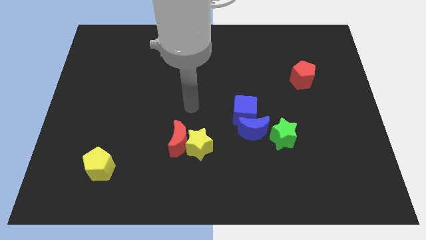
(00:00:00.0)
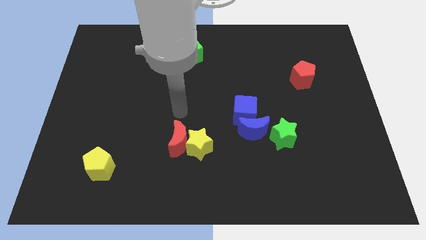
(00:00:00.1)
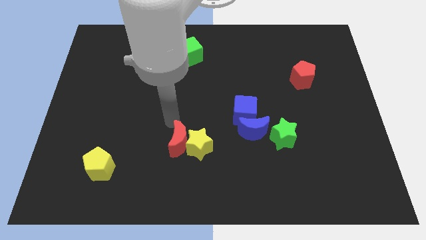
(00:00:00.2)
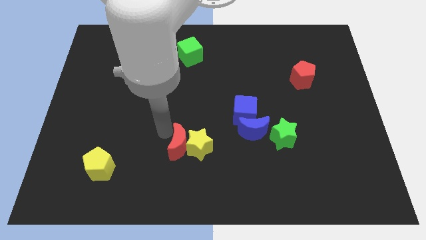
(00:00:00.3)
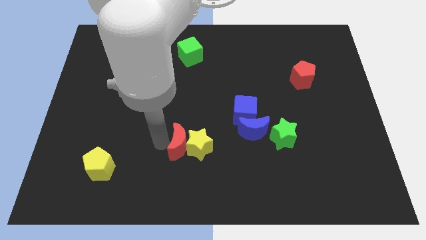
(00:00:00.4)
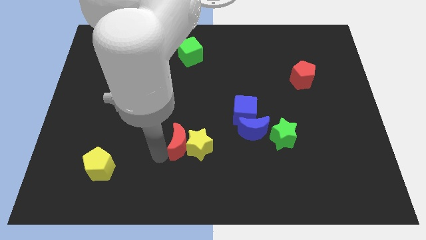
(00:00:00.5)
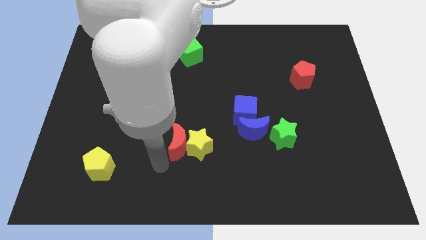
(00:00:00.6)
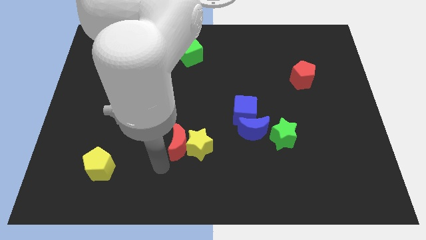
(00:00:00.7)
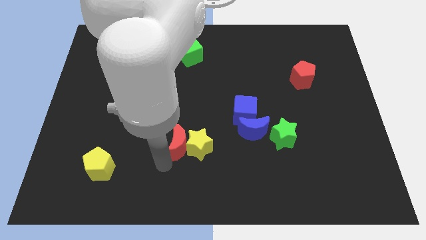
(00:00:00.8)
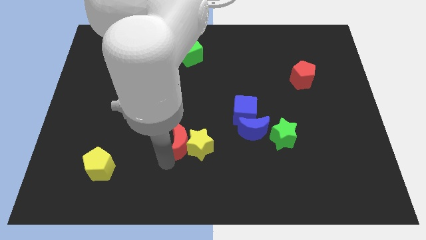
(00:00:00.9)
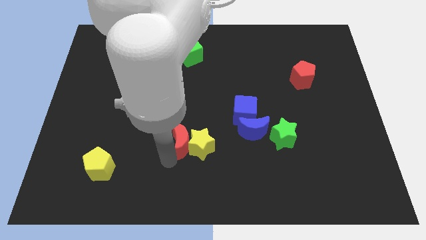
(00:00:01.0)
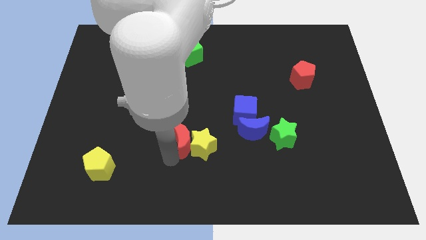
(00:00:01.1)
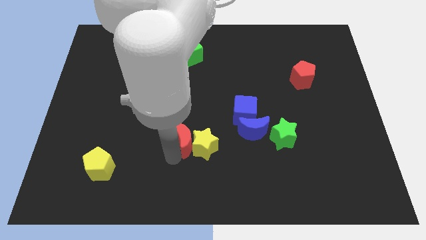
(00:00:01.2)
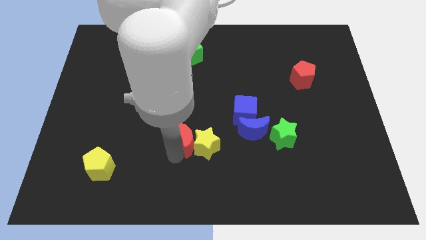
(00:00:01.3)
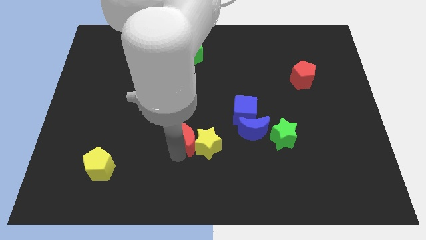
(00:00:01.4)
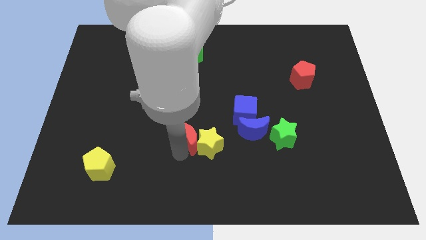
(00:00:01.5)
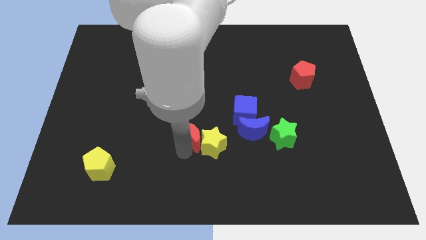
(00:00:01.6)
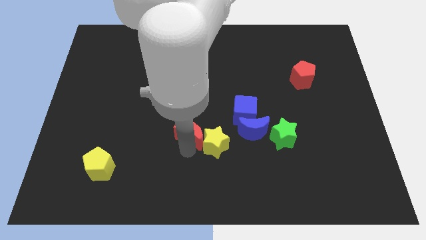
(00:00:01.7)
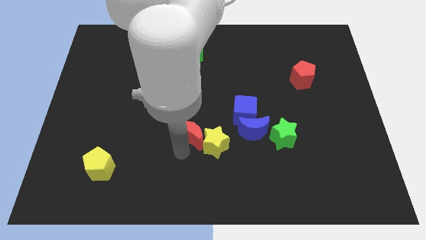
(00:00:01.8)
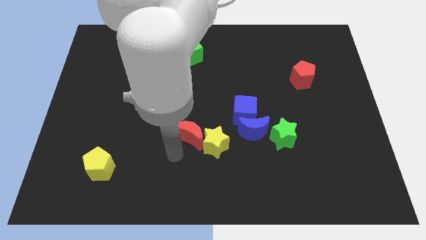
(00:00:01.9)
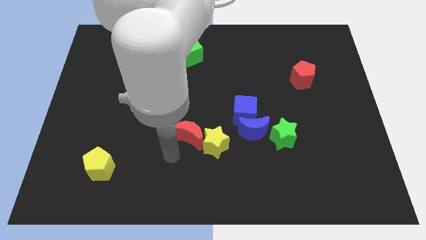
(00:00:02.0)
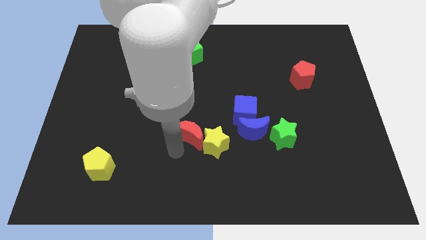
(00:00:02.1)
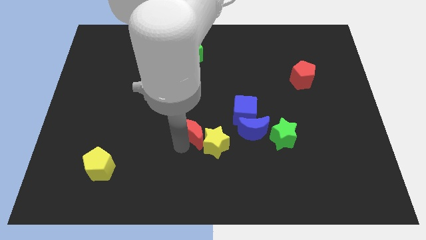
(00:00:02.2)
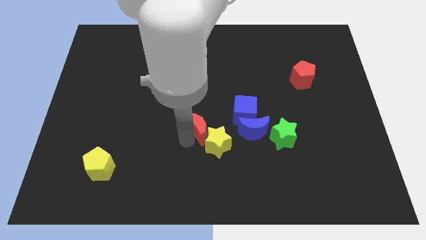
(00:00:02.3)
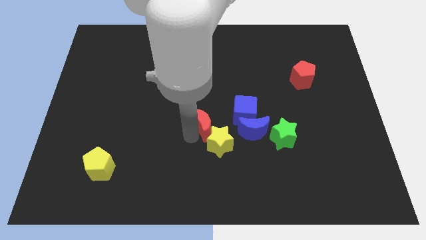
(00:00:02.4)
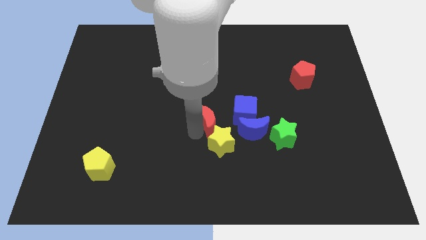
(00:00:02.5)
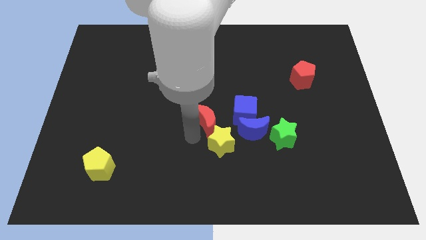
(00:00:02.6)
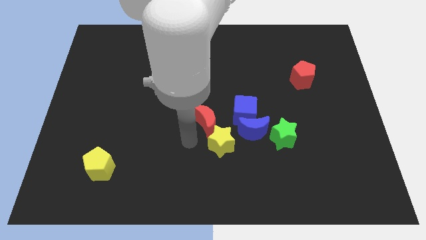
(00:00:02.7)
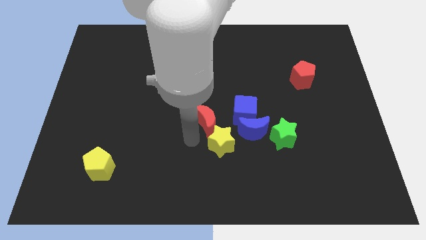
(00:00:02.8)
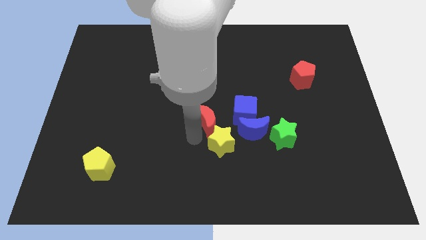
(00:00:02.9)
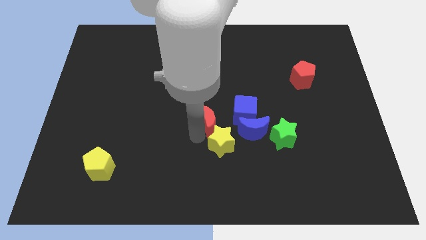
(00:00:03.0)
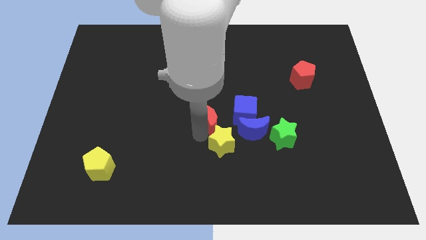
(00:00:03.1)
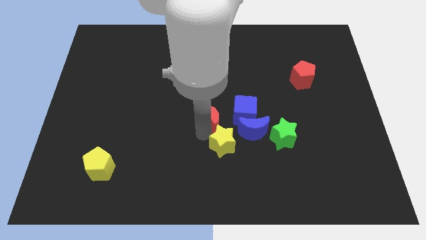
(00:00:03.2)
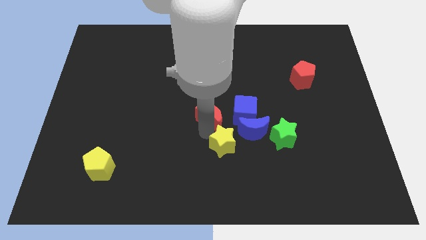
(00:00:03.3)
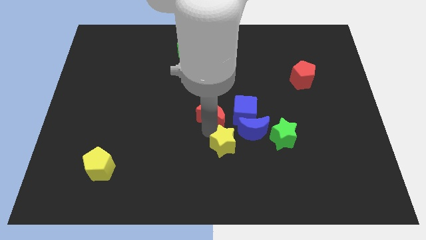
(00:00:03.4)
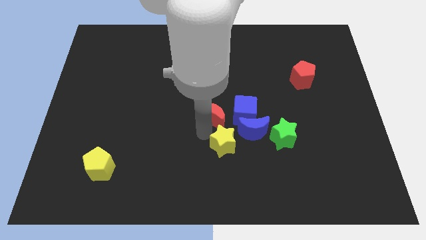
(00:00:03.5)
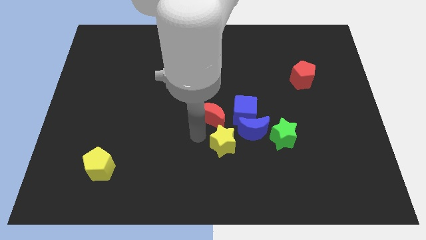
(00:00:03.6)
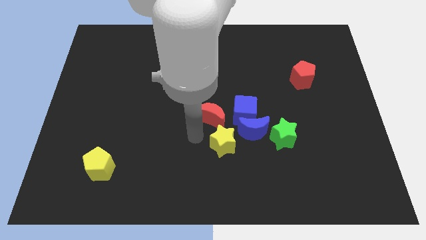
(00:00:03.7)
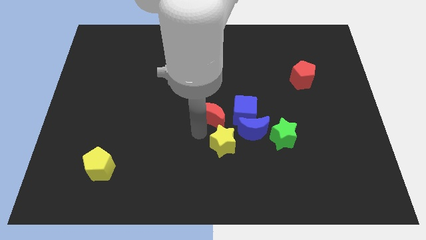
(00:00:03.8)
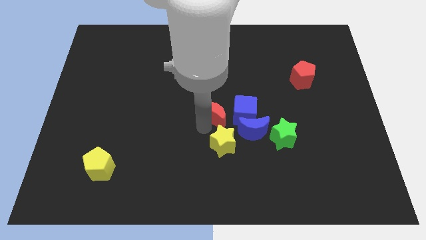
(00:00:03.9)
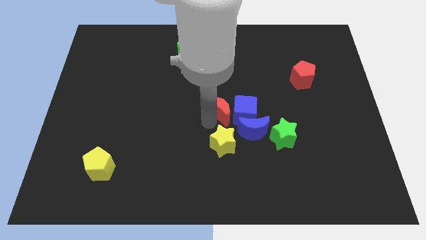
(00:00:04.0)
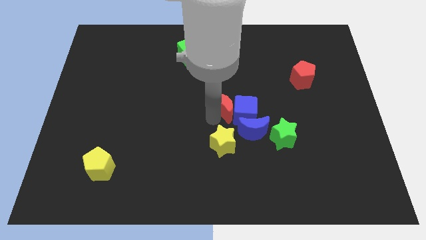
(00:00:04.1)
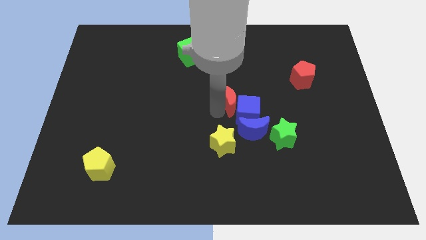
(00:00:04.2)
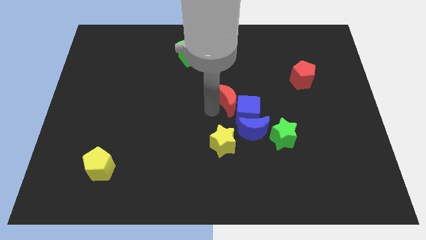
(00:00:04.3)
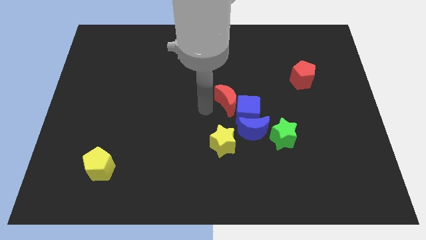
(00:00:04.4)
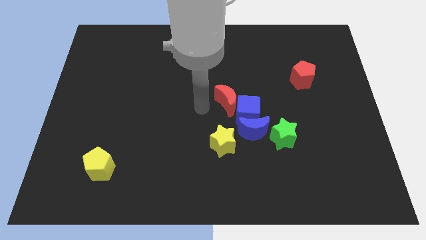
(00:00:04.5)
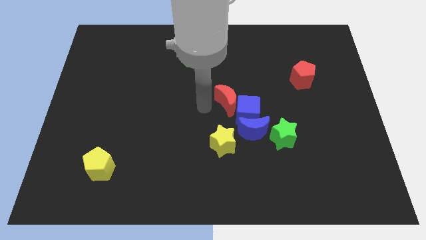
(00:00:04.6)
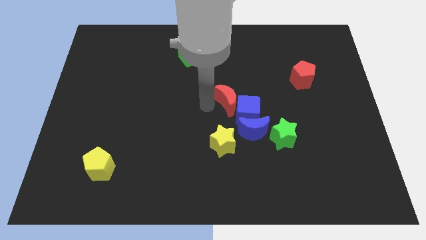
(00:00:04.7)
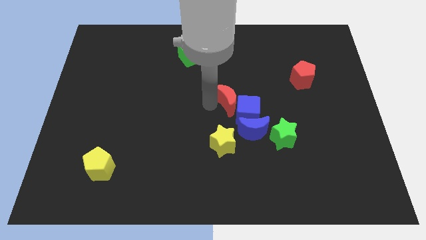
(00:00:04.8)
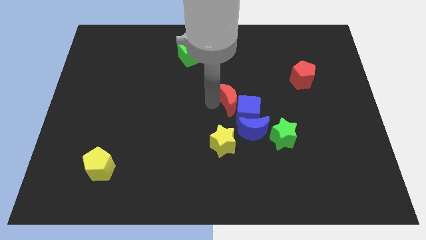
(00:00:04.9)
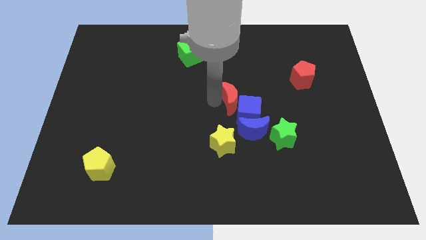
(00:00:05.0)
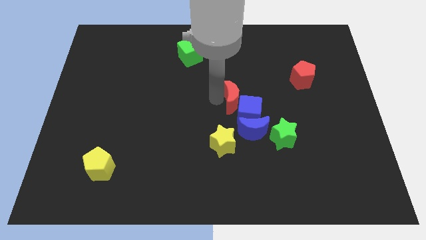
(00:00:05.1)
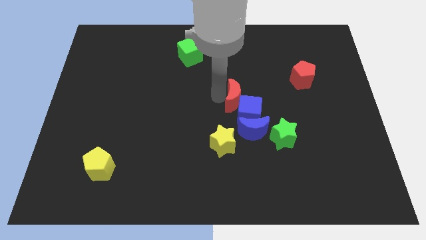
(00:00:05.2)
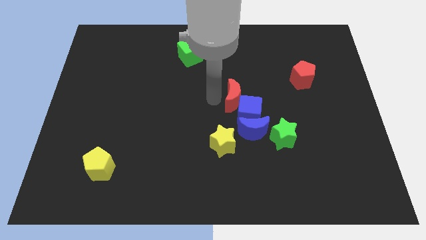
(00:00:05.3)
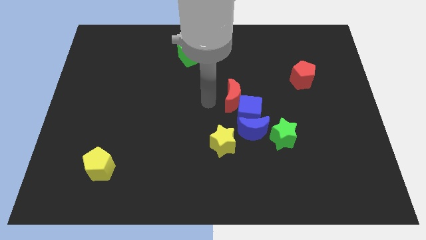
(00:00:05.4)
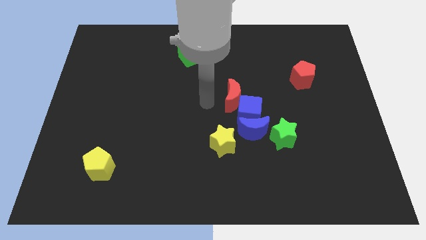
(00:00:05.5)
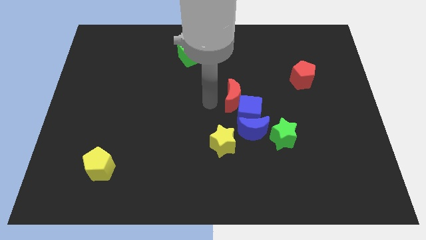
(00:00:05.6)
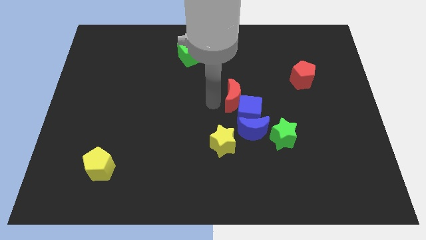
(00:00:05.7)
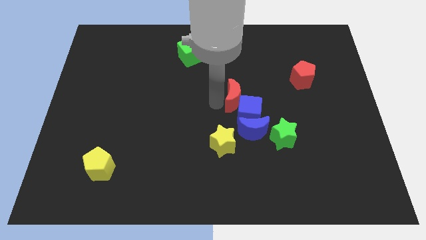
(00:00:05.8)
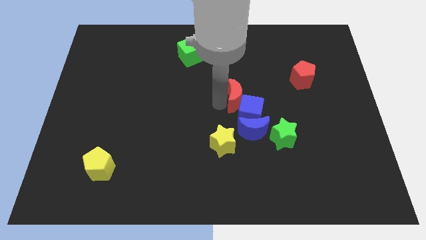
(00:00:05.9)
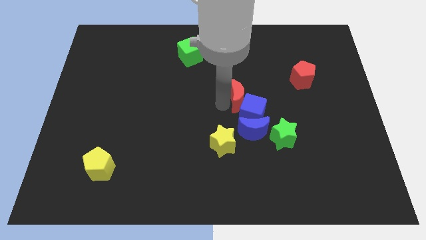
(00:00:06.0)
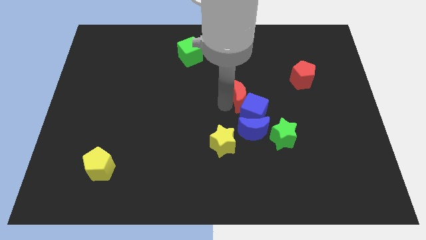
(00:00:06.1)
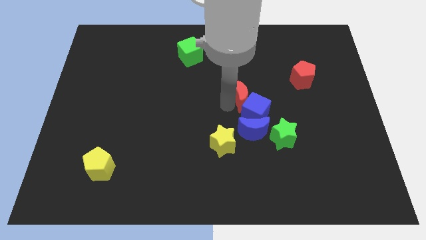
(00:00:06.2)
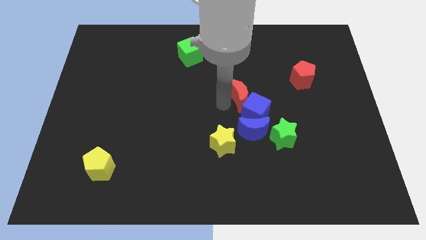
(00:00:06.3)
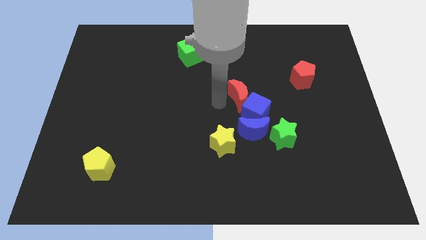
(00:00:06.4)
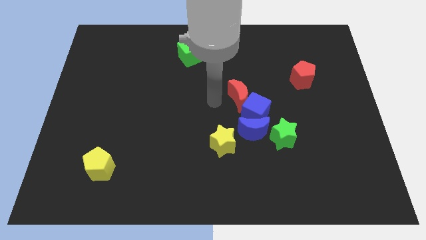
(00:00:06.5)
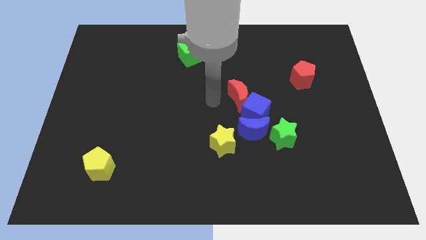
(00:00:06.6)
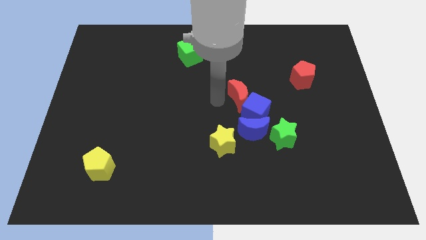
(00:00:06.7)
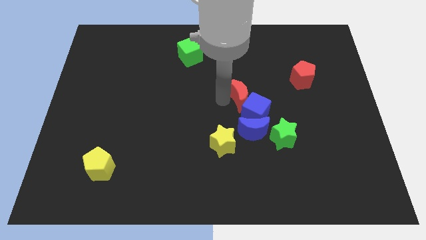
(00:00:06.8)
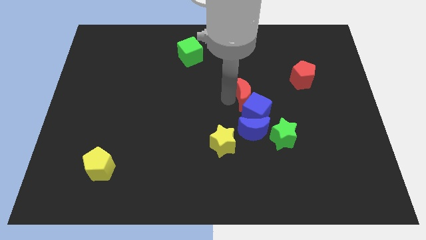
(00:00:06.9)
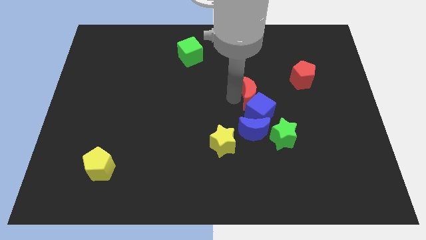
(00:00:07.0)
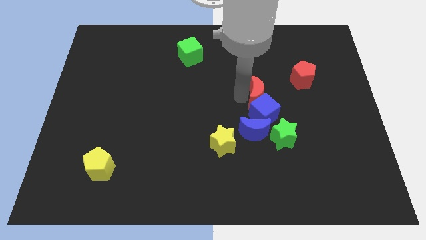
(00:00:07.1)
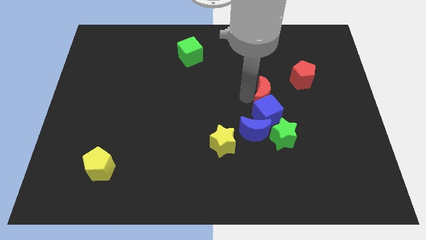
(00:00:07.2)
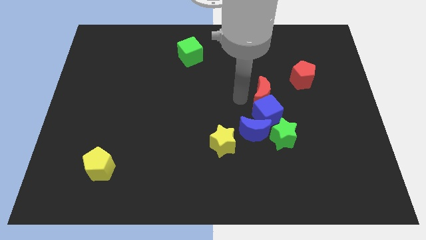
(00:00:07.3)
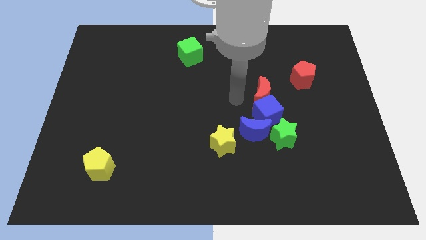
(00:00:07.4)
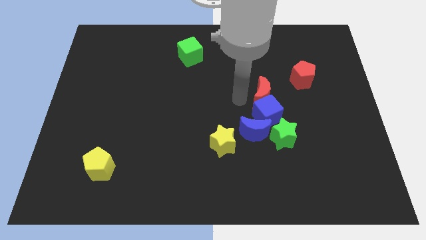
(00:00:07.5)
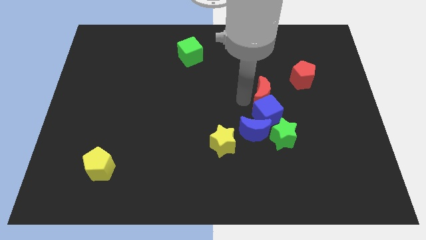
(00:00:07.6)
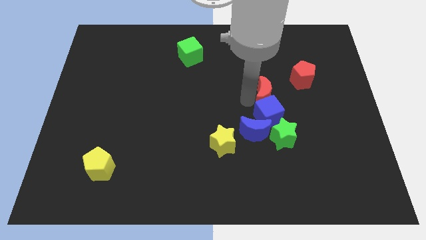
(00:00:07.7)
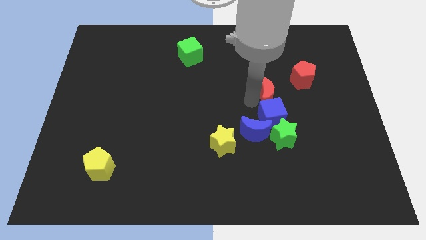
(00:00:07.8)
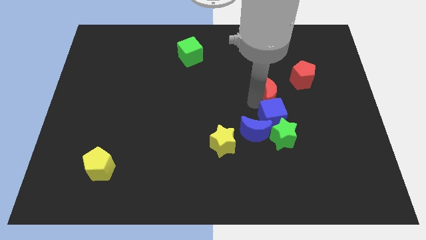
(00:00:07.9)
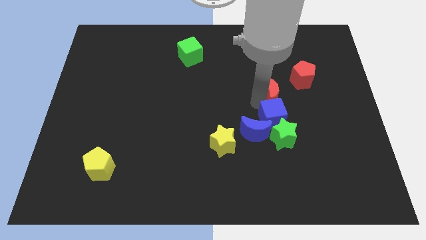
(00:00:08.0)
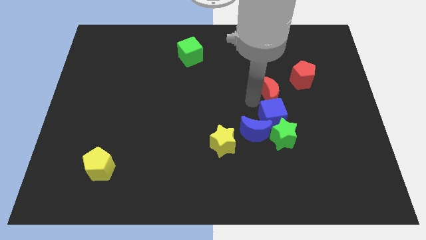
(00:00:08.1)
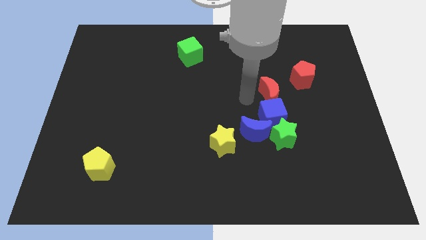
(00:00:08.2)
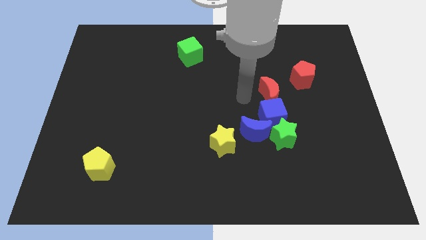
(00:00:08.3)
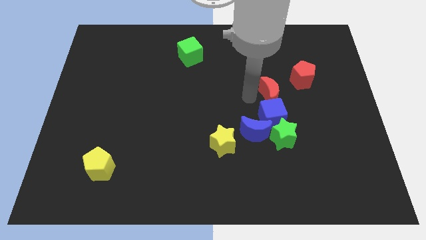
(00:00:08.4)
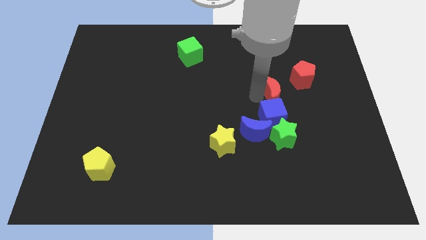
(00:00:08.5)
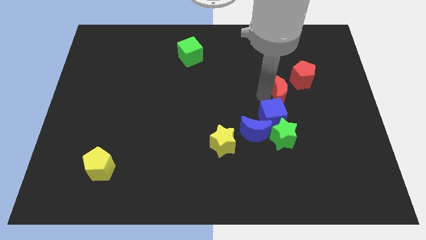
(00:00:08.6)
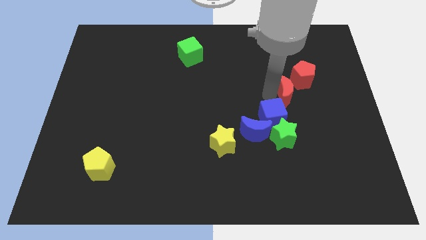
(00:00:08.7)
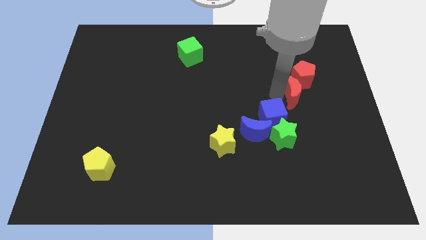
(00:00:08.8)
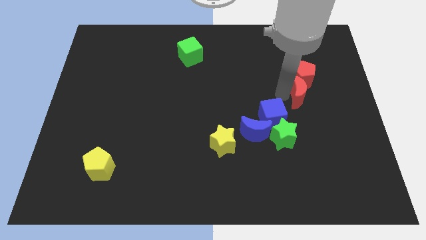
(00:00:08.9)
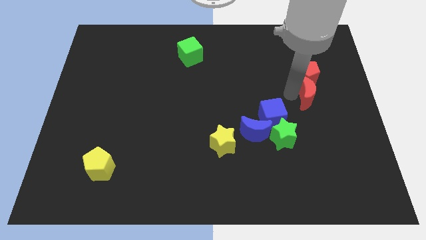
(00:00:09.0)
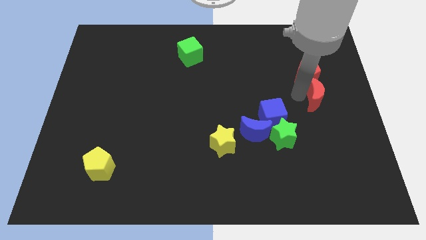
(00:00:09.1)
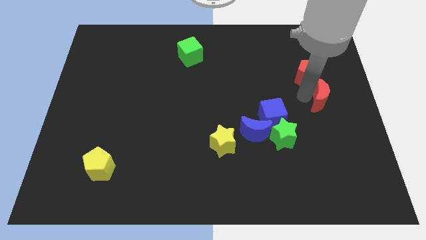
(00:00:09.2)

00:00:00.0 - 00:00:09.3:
push the red moon to the center right
